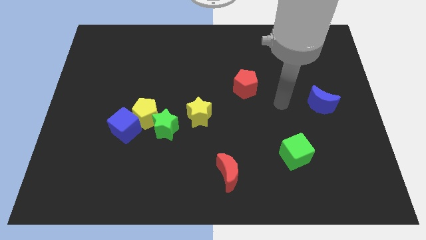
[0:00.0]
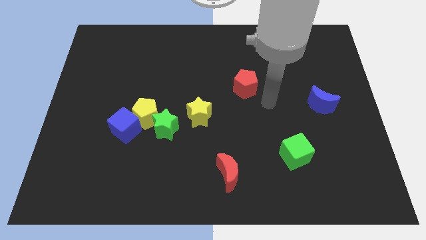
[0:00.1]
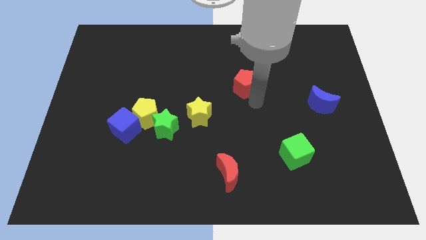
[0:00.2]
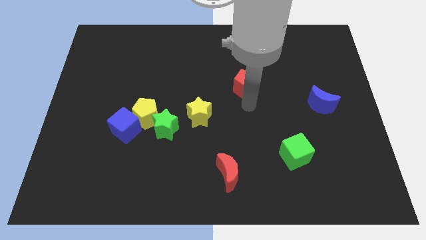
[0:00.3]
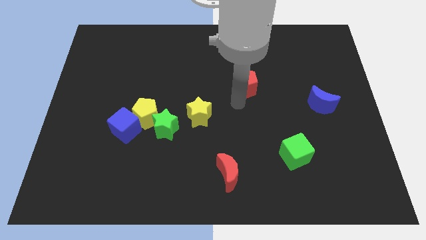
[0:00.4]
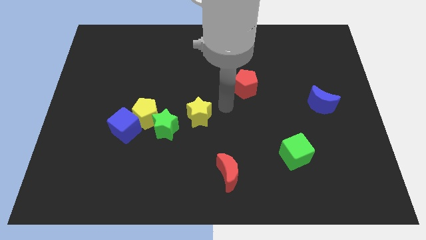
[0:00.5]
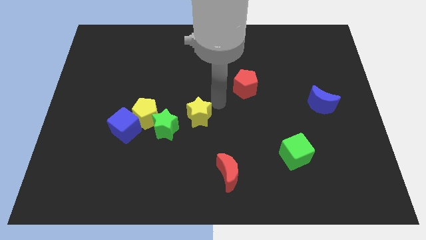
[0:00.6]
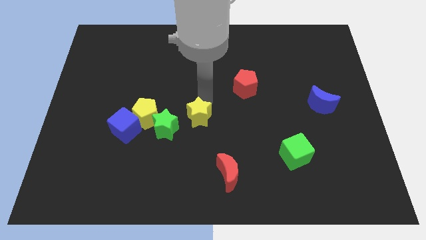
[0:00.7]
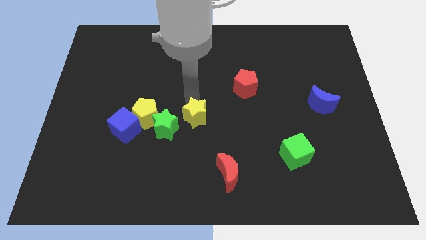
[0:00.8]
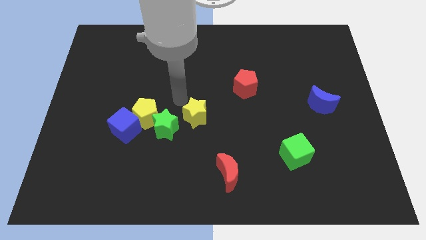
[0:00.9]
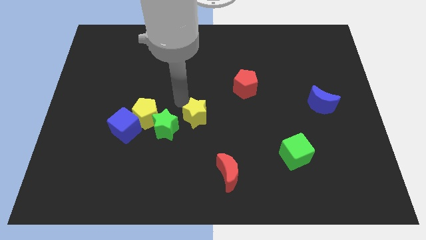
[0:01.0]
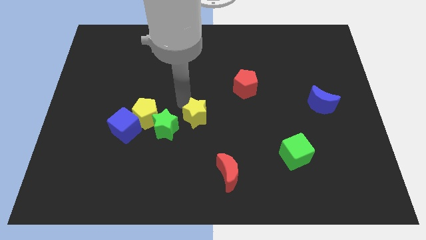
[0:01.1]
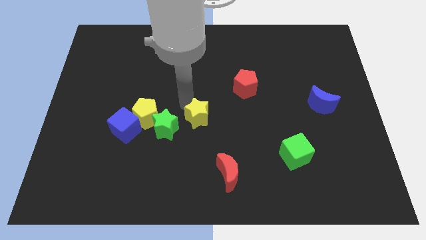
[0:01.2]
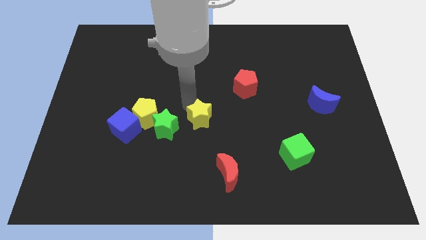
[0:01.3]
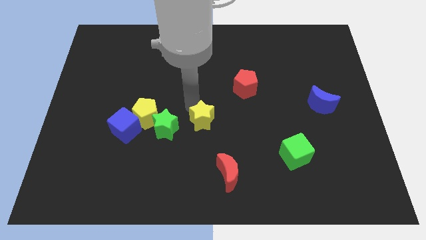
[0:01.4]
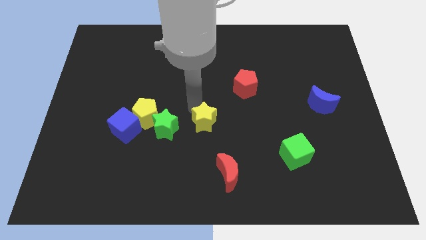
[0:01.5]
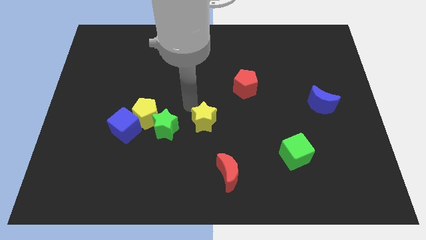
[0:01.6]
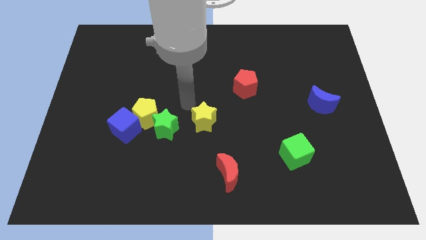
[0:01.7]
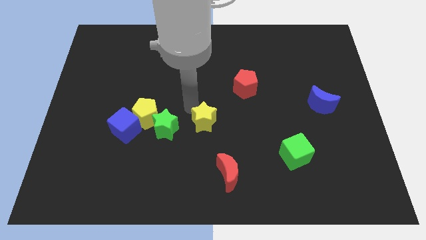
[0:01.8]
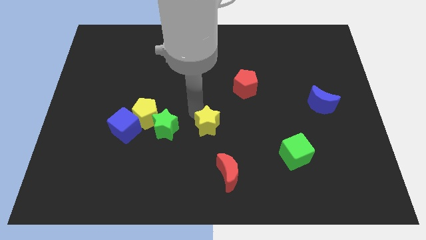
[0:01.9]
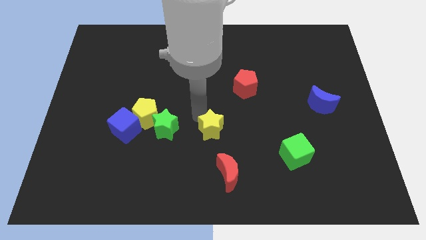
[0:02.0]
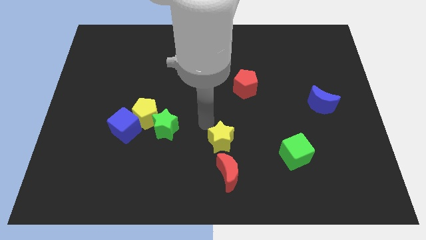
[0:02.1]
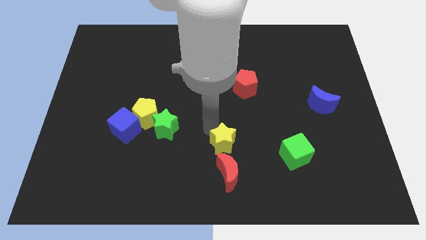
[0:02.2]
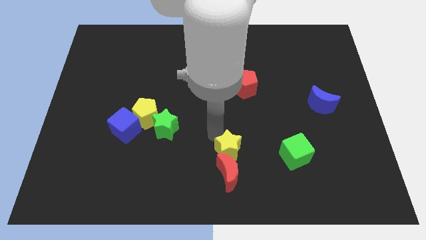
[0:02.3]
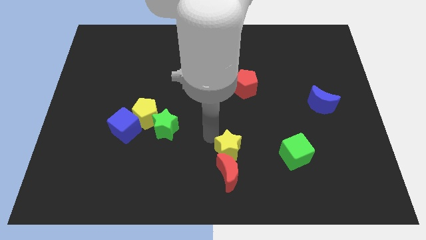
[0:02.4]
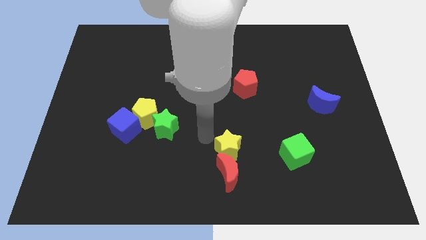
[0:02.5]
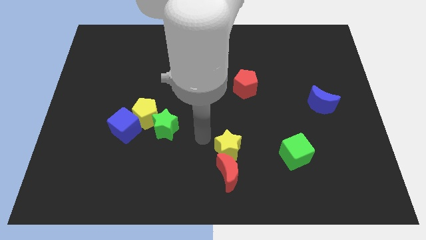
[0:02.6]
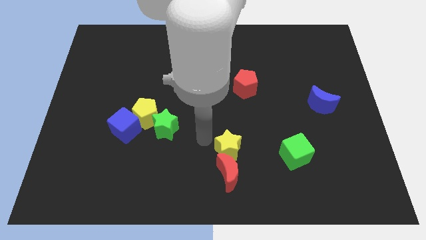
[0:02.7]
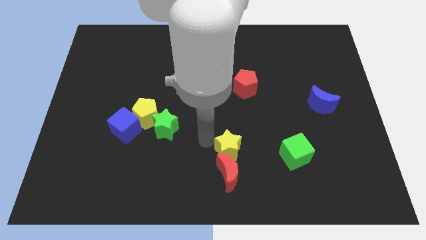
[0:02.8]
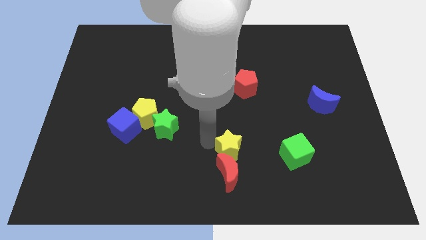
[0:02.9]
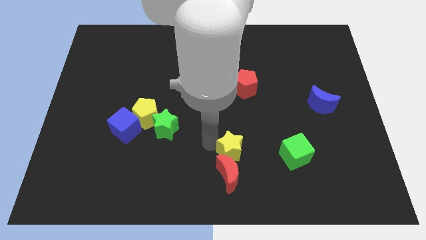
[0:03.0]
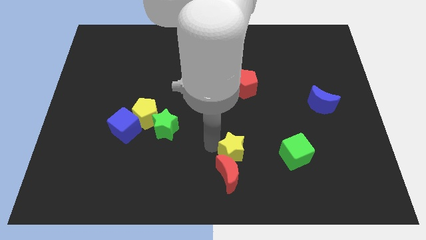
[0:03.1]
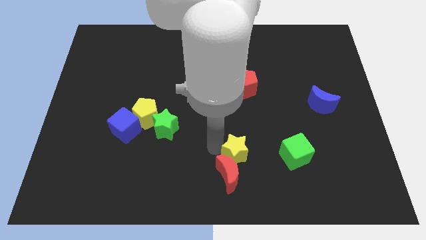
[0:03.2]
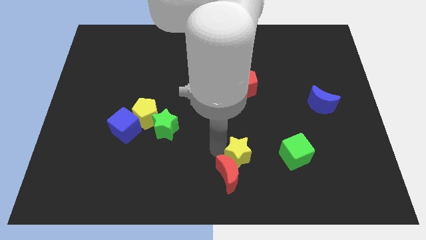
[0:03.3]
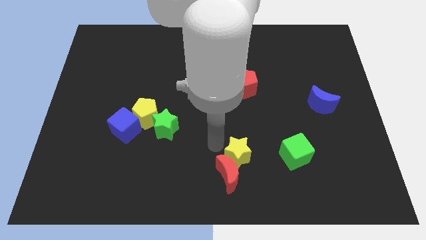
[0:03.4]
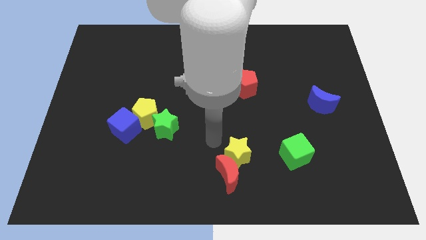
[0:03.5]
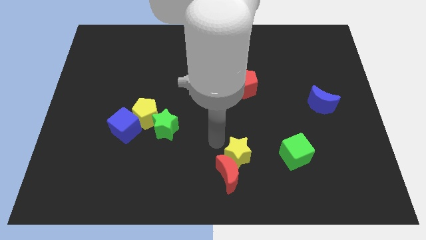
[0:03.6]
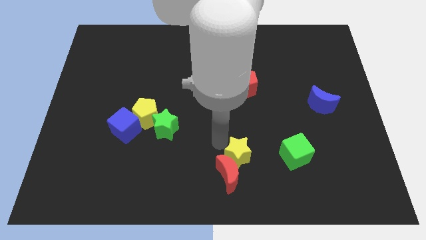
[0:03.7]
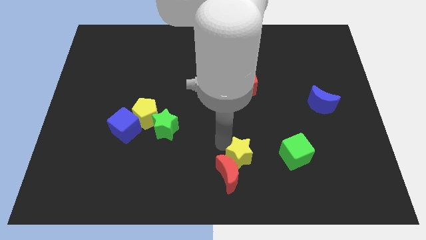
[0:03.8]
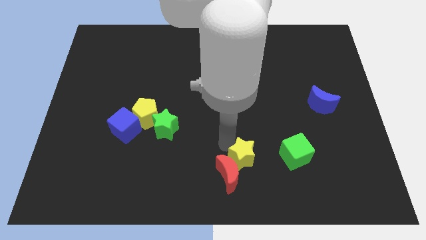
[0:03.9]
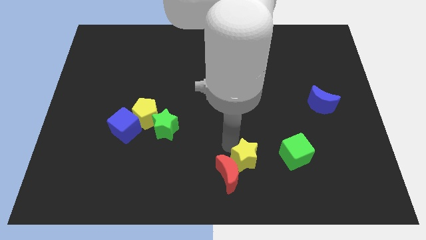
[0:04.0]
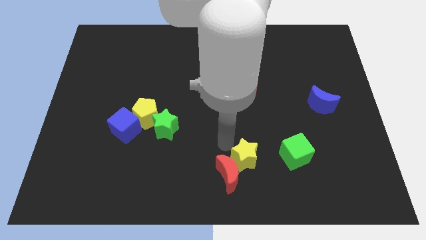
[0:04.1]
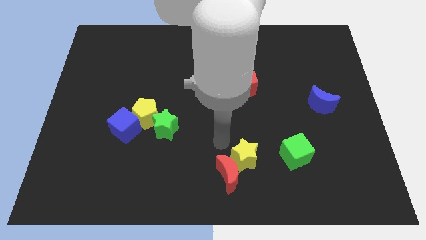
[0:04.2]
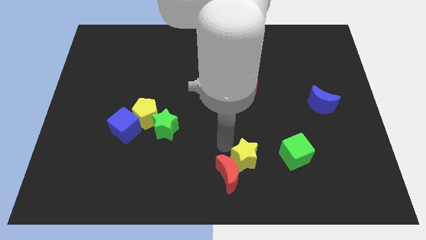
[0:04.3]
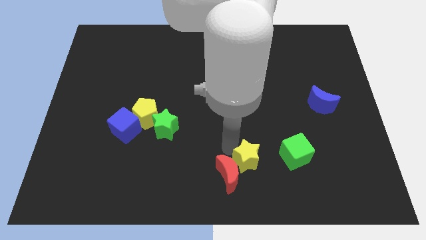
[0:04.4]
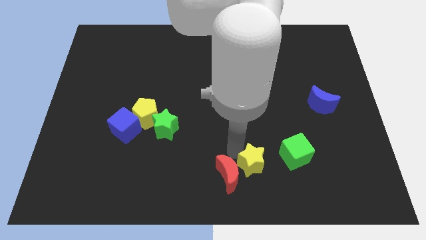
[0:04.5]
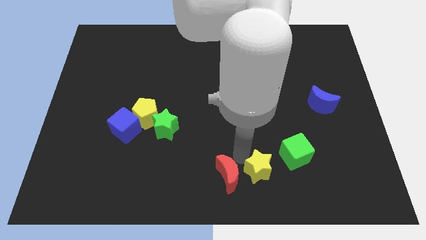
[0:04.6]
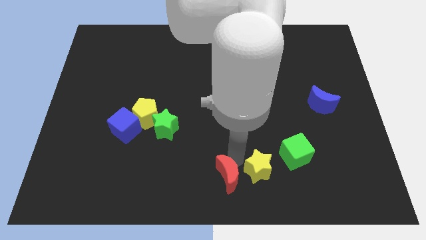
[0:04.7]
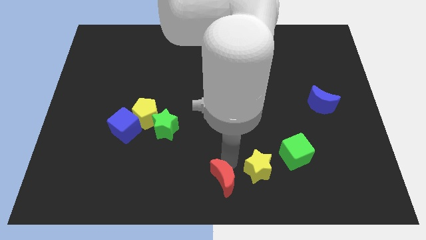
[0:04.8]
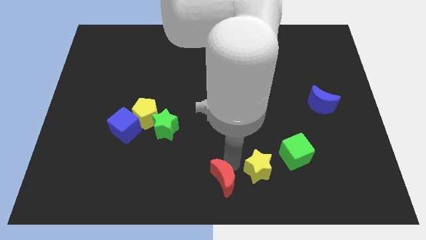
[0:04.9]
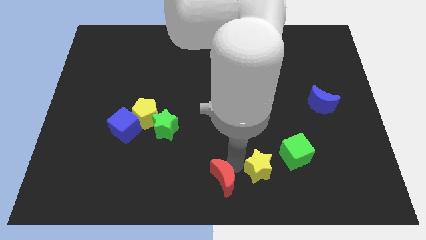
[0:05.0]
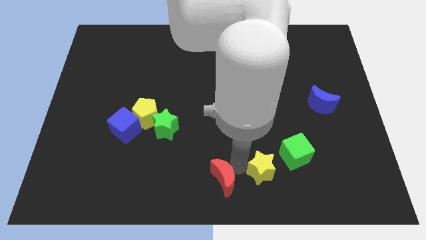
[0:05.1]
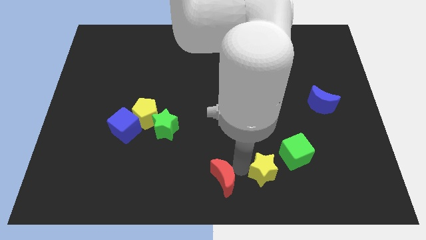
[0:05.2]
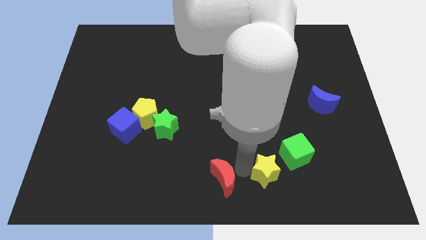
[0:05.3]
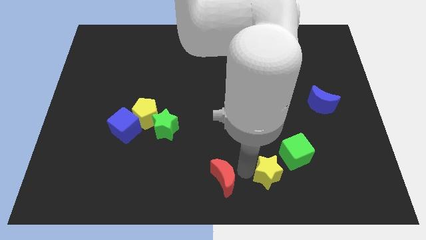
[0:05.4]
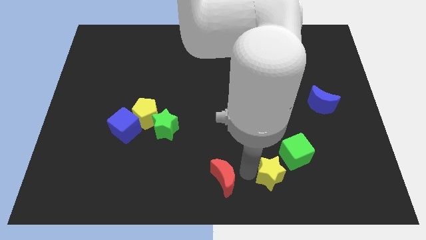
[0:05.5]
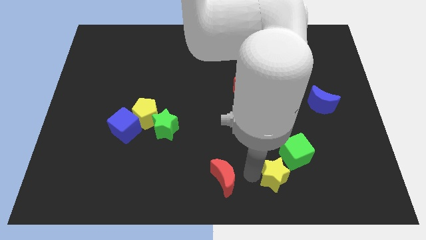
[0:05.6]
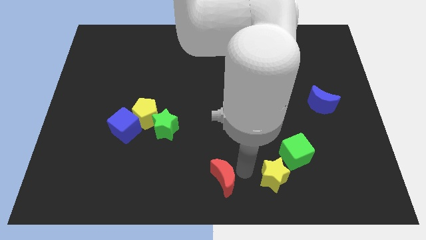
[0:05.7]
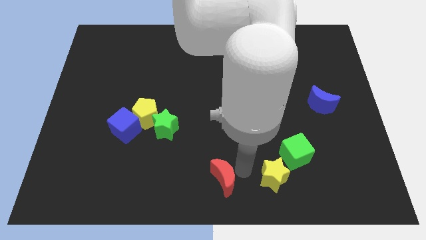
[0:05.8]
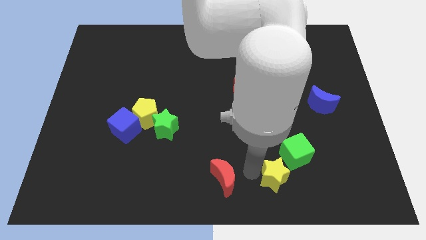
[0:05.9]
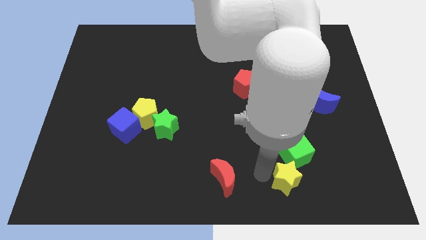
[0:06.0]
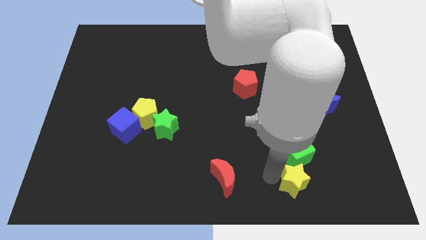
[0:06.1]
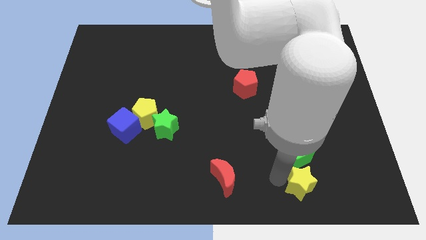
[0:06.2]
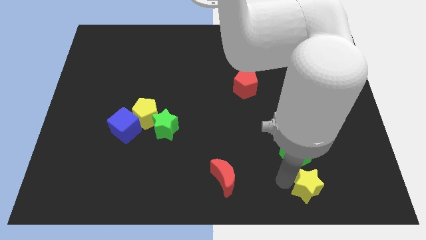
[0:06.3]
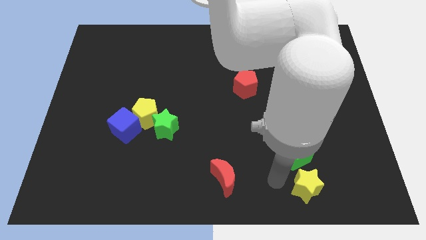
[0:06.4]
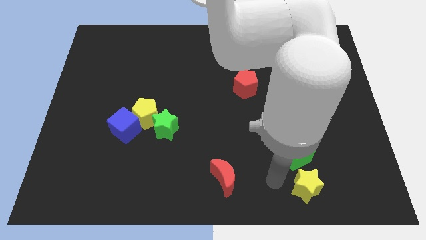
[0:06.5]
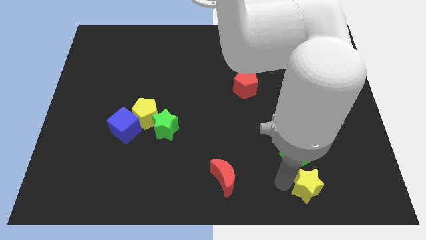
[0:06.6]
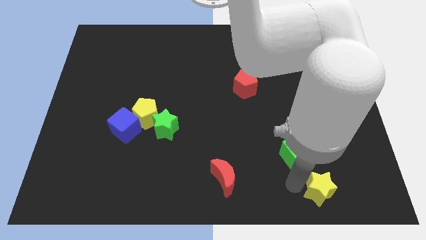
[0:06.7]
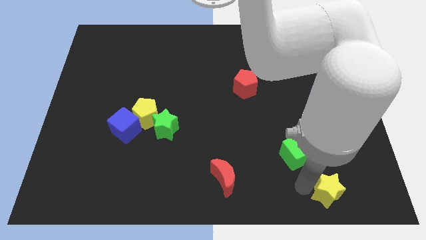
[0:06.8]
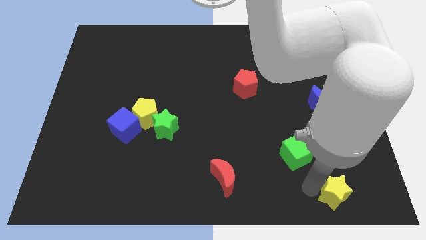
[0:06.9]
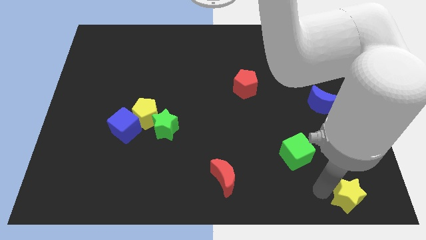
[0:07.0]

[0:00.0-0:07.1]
push the yellow star to the bottom right of the board
